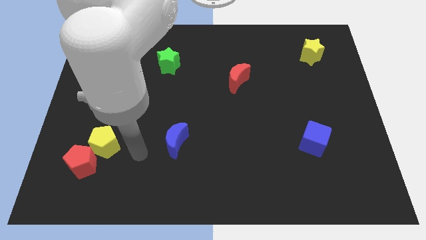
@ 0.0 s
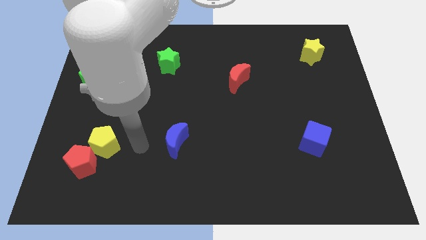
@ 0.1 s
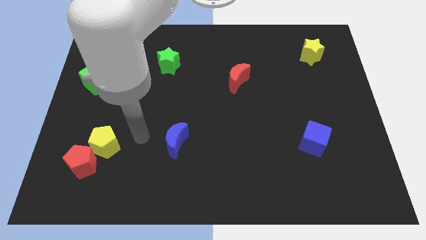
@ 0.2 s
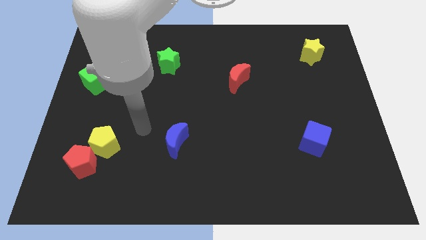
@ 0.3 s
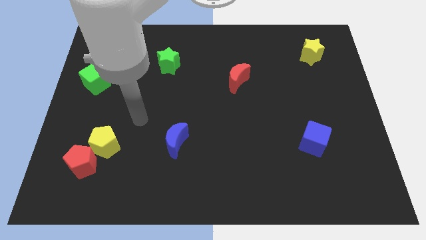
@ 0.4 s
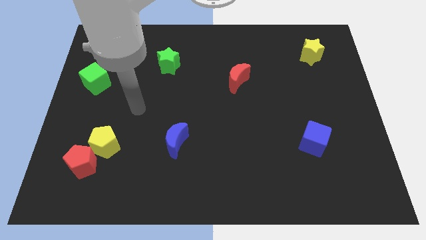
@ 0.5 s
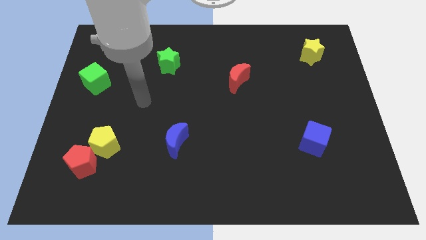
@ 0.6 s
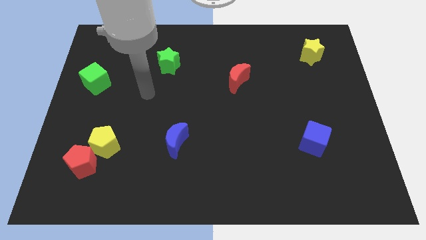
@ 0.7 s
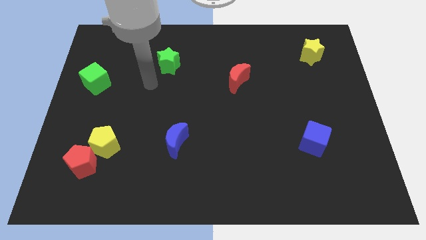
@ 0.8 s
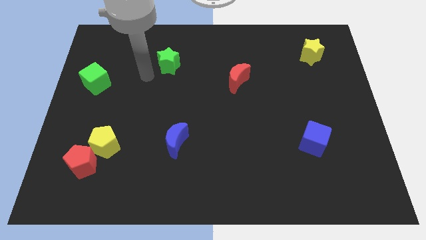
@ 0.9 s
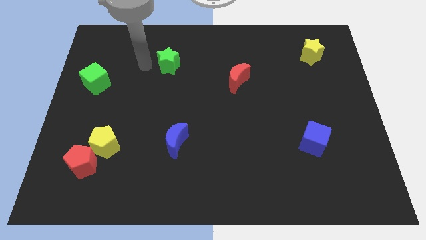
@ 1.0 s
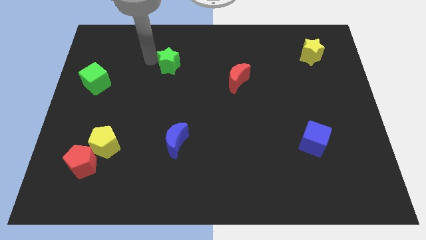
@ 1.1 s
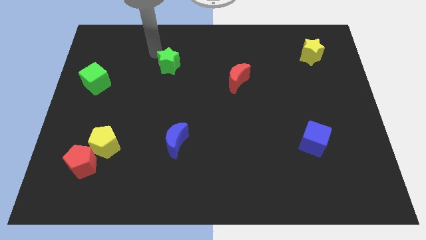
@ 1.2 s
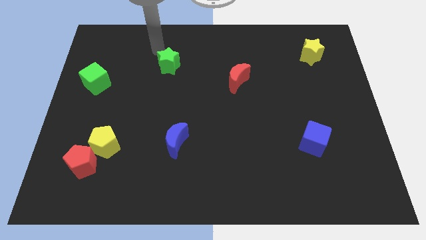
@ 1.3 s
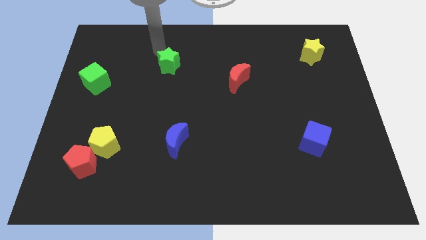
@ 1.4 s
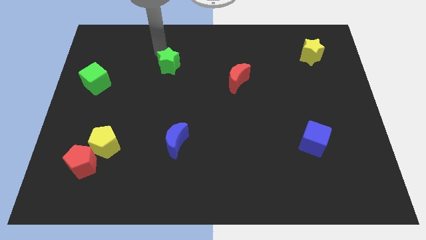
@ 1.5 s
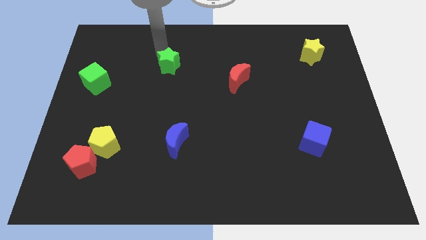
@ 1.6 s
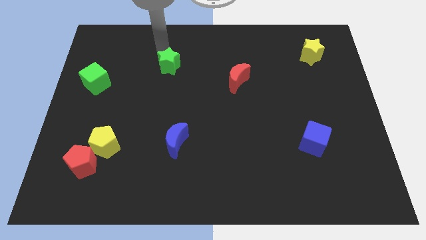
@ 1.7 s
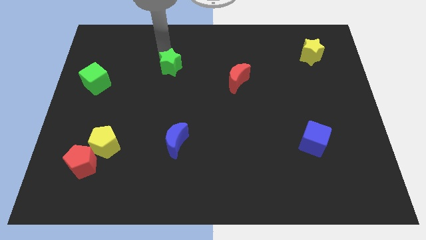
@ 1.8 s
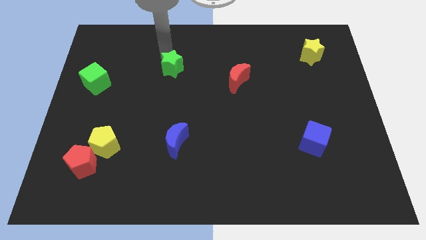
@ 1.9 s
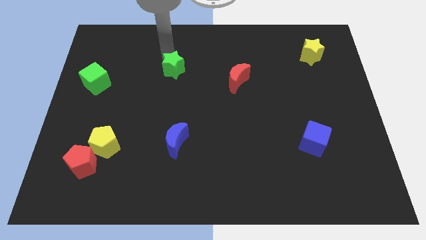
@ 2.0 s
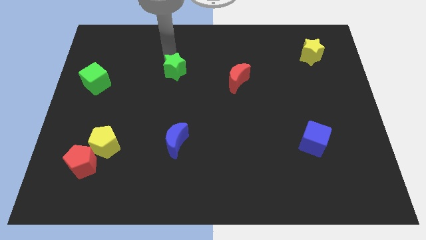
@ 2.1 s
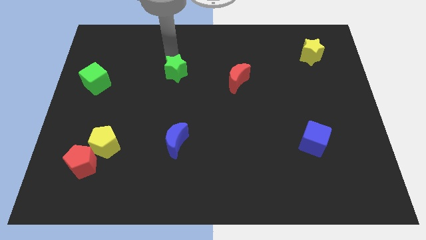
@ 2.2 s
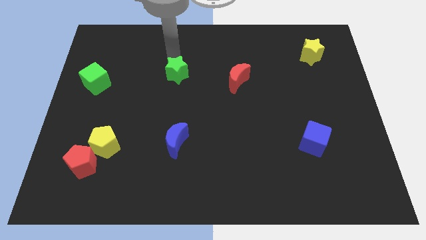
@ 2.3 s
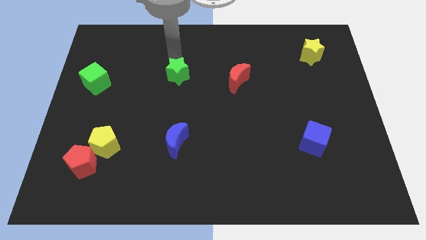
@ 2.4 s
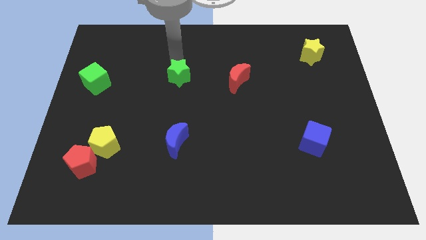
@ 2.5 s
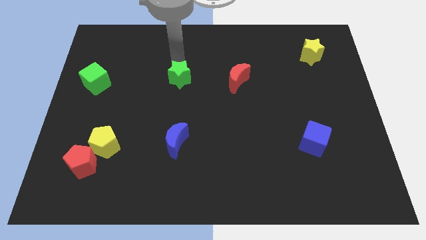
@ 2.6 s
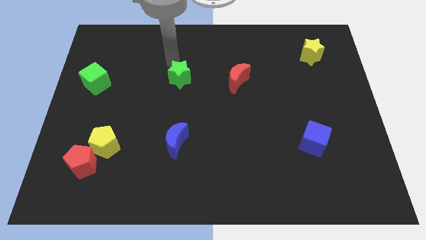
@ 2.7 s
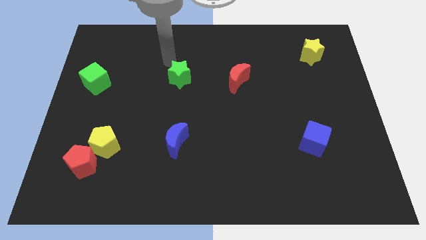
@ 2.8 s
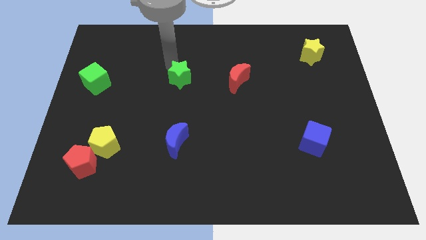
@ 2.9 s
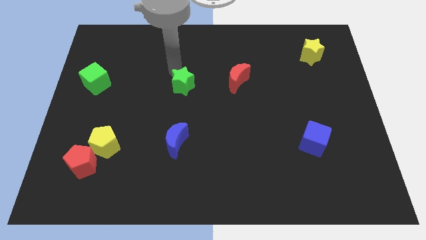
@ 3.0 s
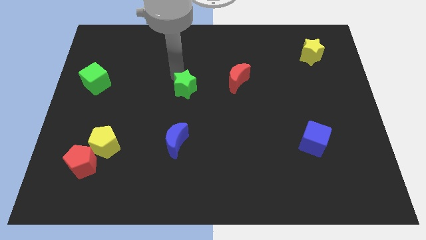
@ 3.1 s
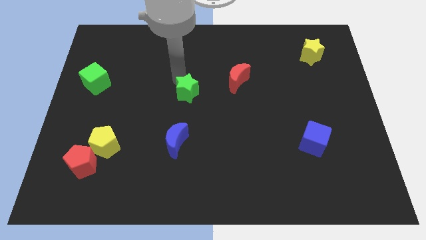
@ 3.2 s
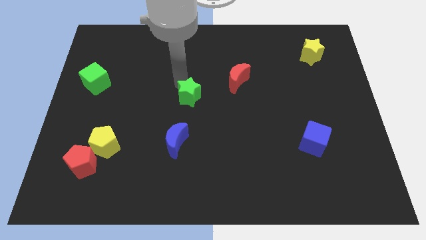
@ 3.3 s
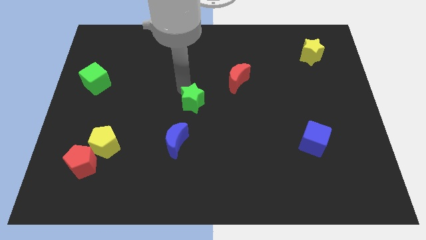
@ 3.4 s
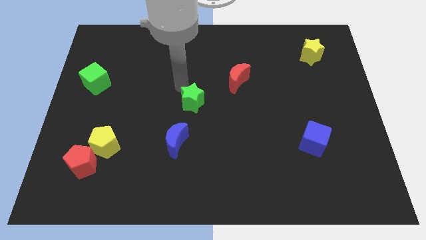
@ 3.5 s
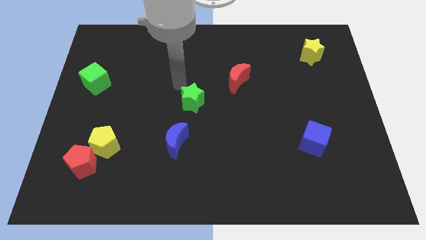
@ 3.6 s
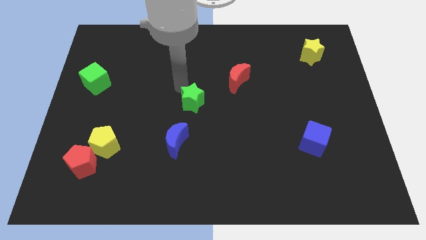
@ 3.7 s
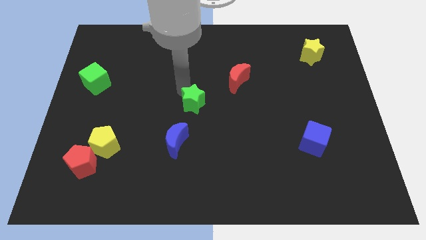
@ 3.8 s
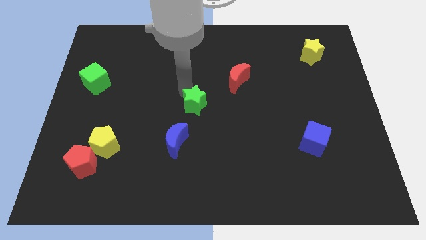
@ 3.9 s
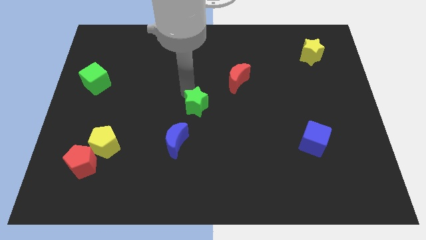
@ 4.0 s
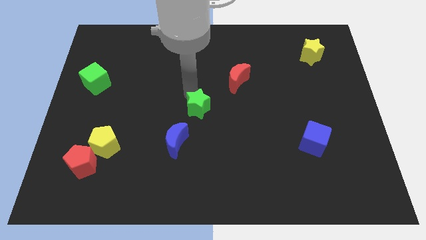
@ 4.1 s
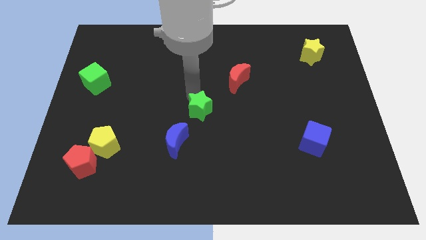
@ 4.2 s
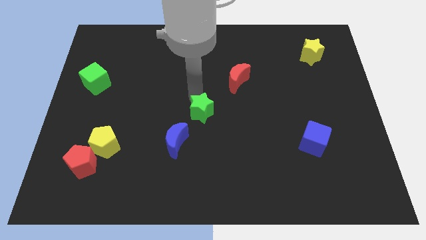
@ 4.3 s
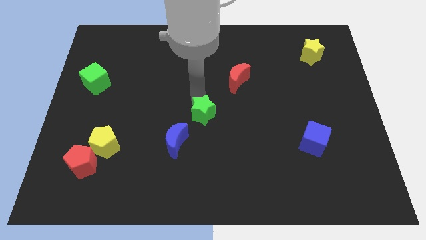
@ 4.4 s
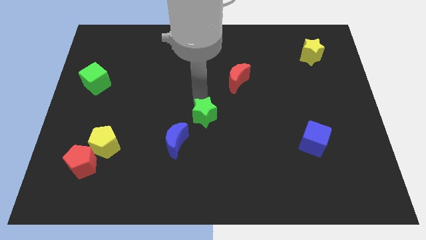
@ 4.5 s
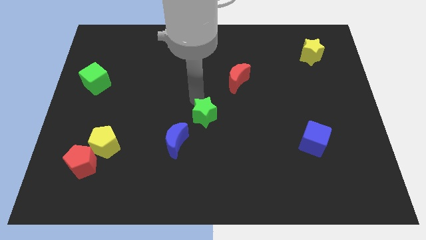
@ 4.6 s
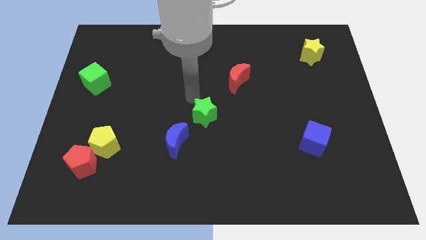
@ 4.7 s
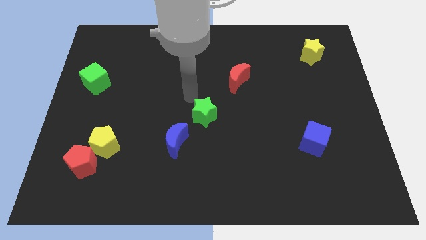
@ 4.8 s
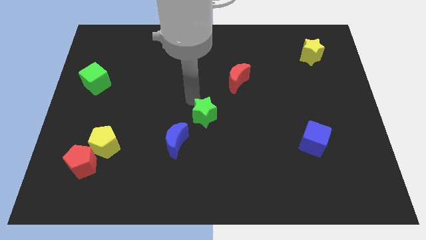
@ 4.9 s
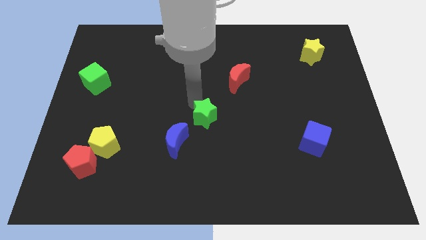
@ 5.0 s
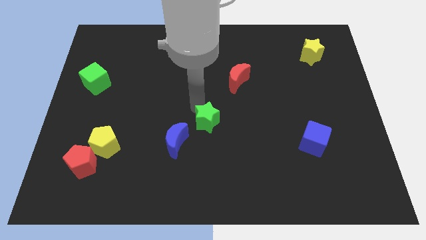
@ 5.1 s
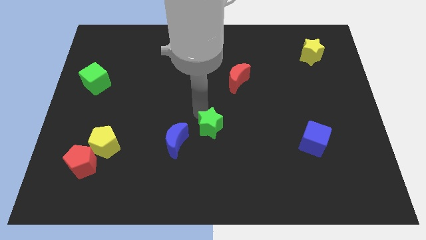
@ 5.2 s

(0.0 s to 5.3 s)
slide the green star to the right of the blue moon

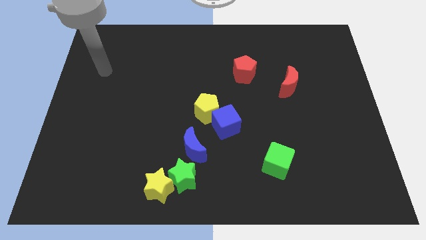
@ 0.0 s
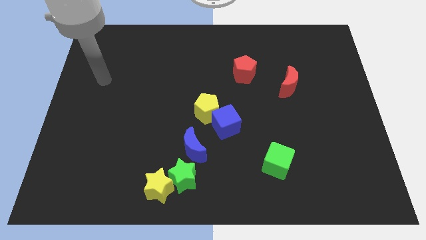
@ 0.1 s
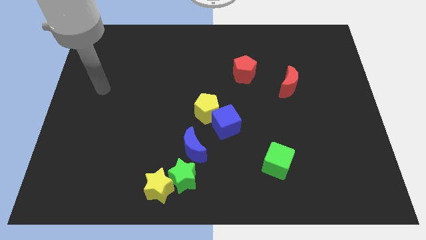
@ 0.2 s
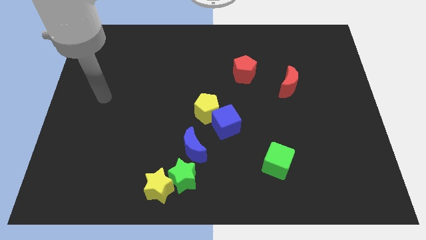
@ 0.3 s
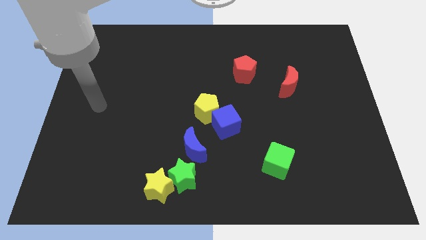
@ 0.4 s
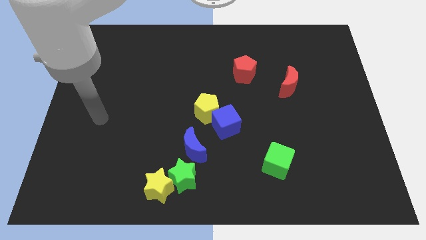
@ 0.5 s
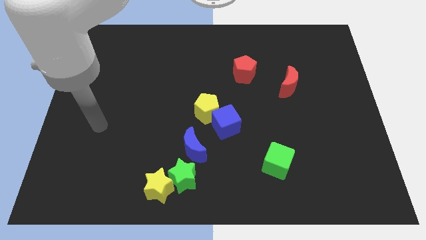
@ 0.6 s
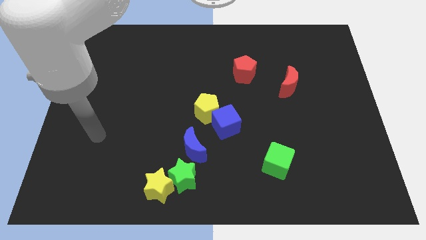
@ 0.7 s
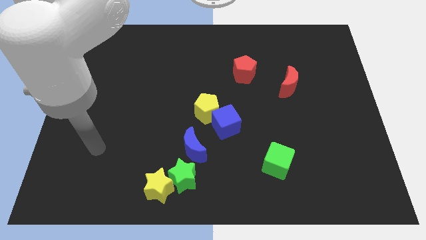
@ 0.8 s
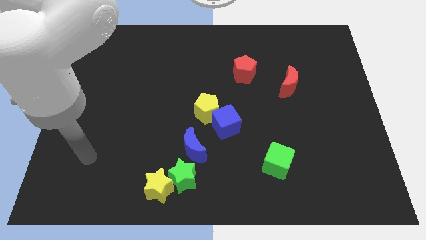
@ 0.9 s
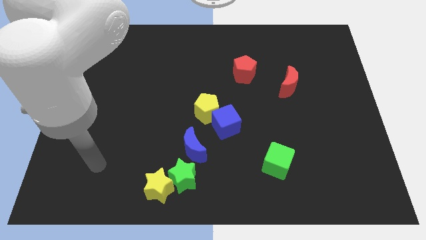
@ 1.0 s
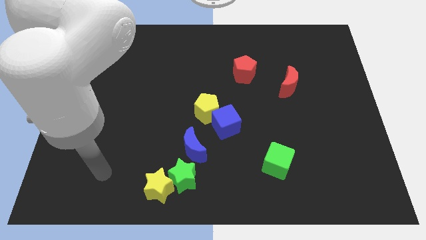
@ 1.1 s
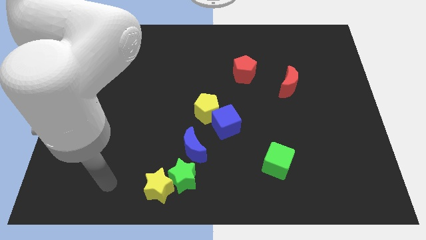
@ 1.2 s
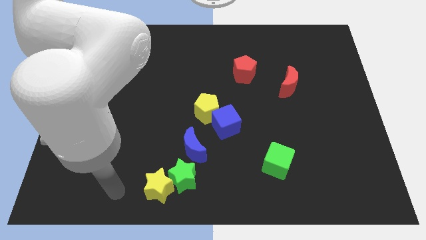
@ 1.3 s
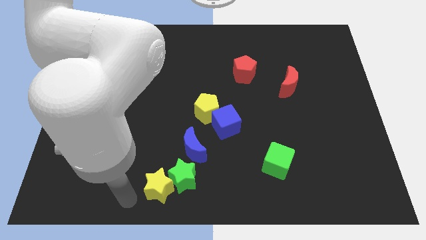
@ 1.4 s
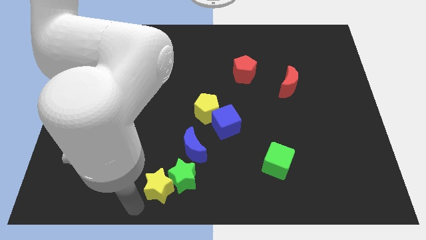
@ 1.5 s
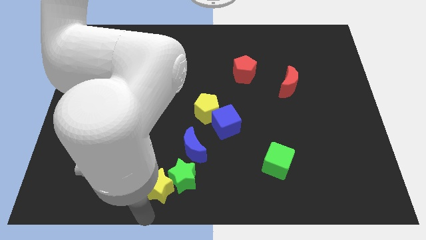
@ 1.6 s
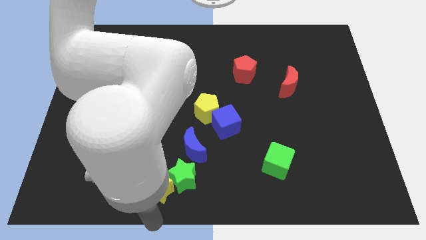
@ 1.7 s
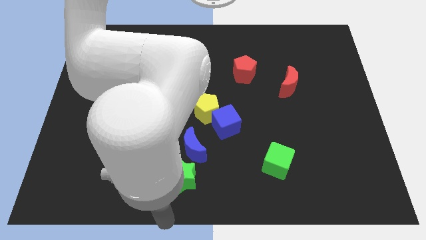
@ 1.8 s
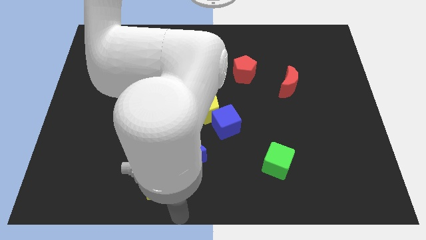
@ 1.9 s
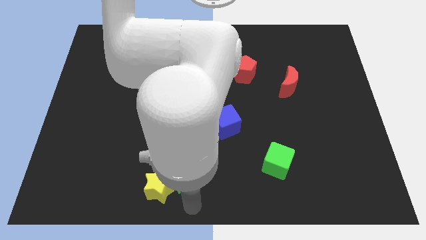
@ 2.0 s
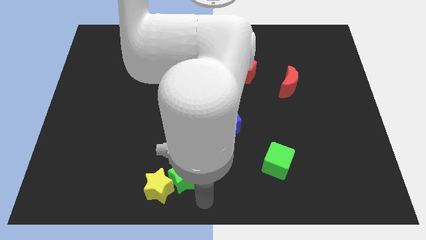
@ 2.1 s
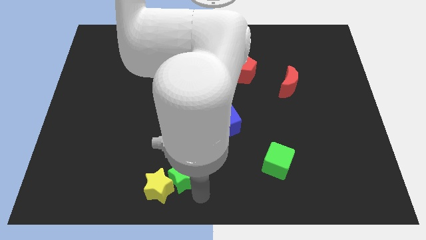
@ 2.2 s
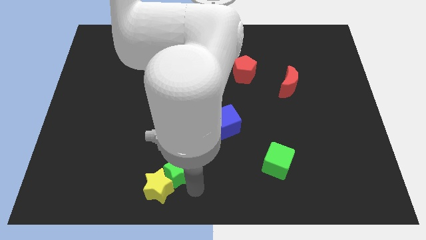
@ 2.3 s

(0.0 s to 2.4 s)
move the green star to the top side of the yellow star
